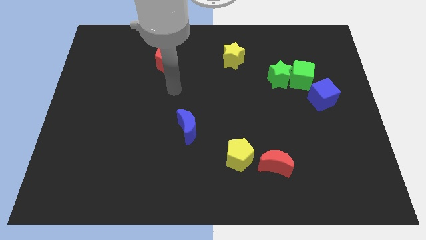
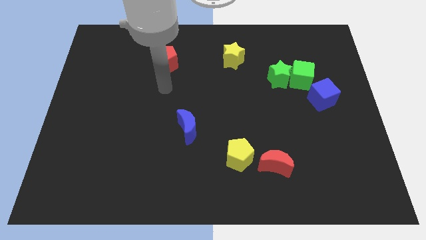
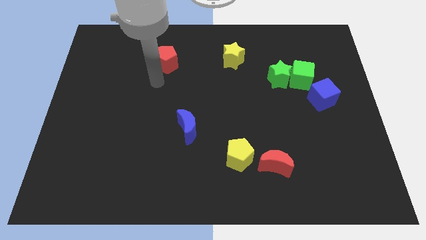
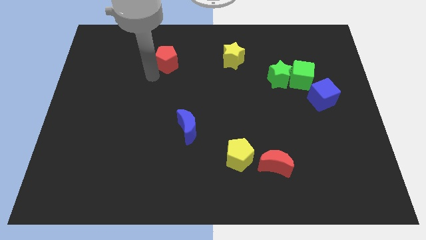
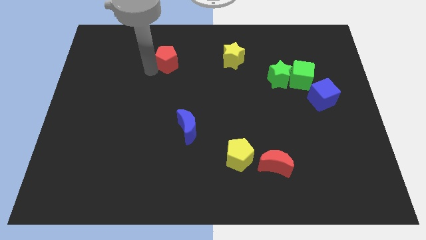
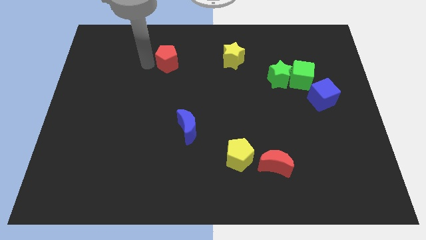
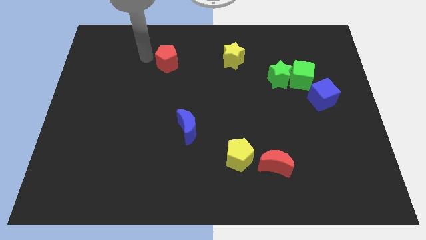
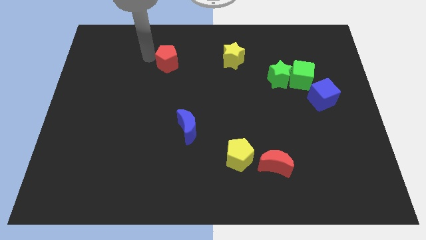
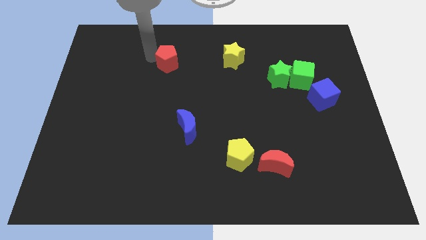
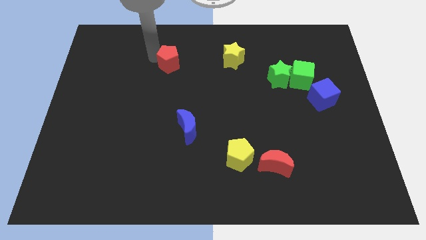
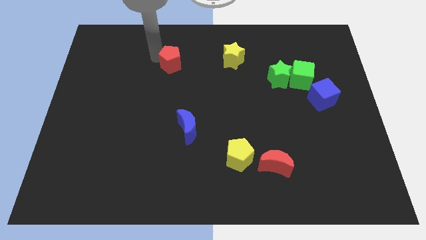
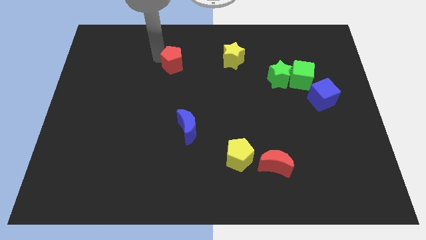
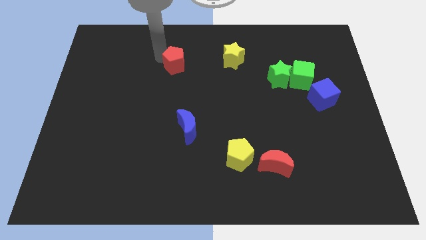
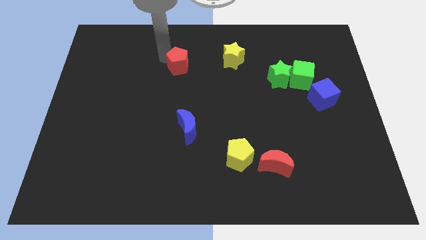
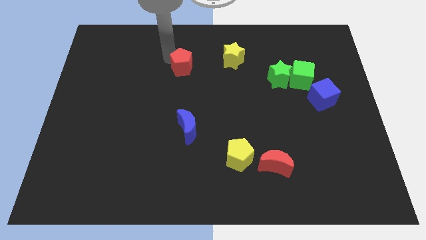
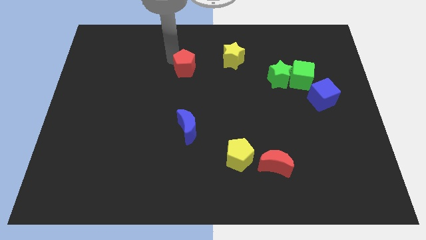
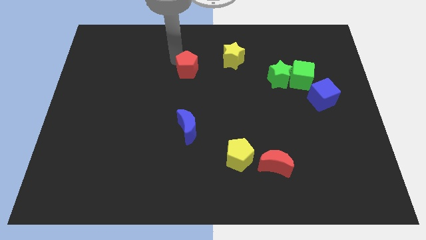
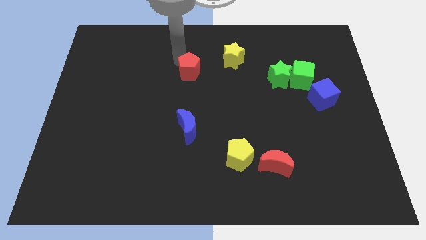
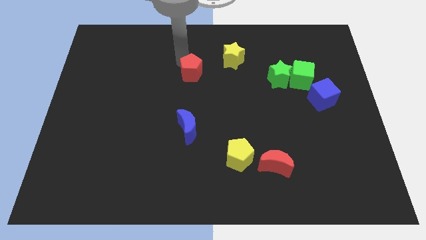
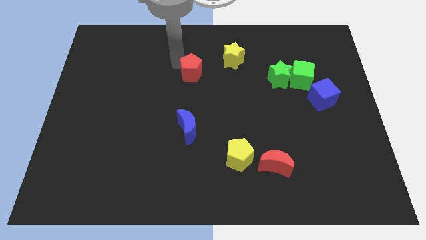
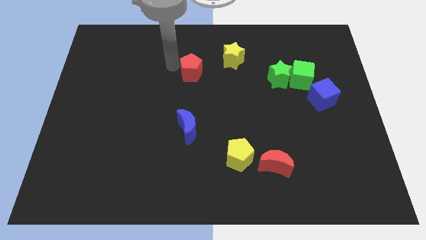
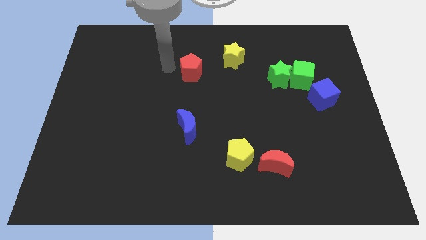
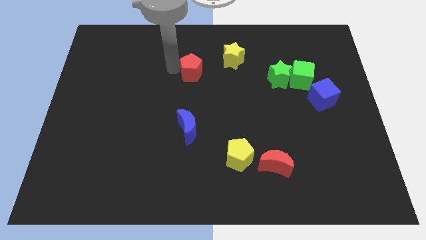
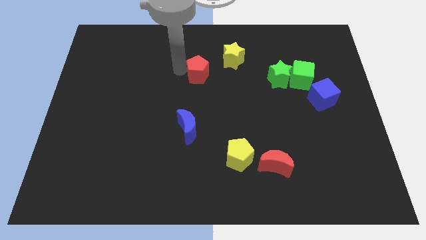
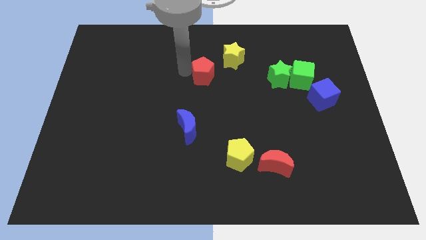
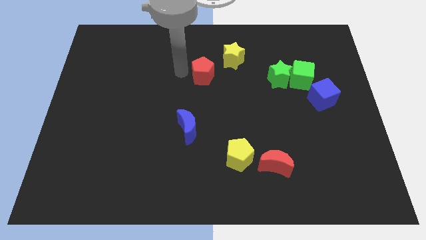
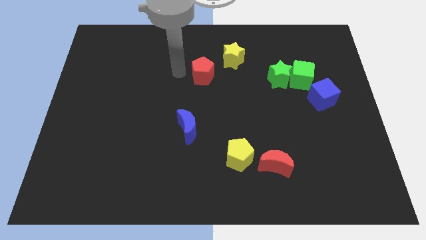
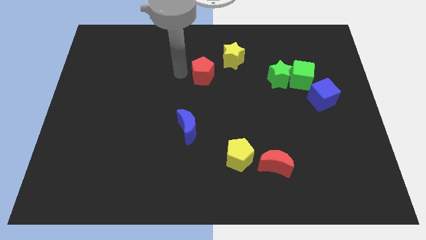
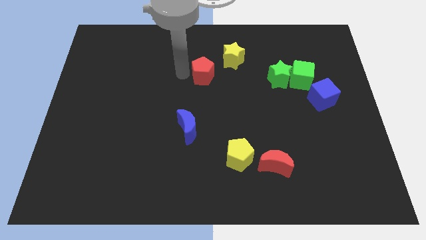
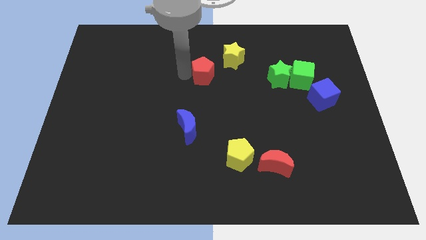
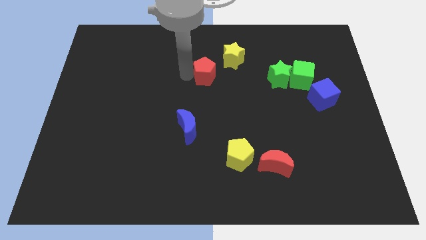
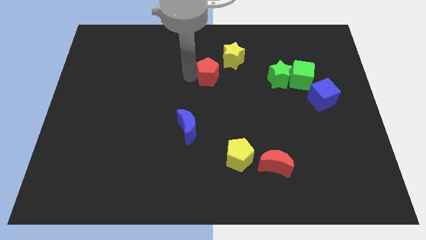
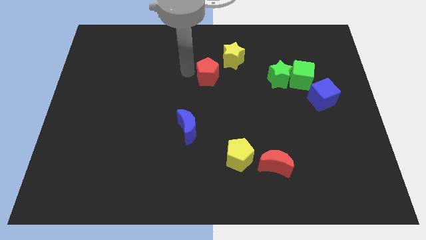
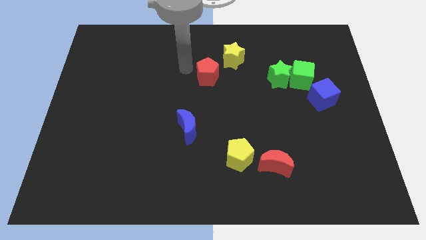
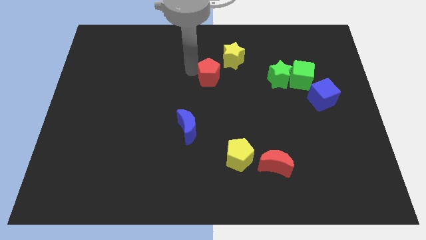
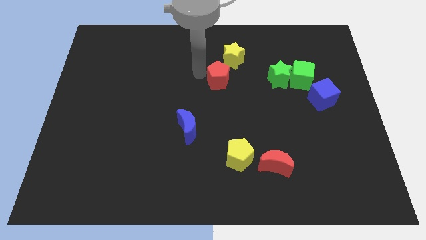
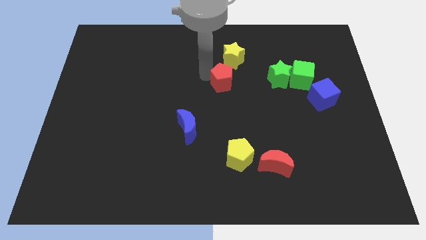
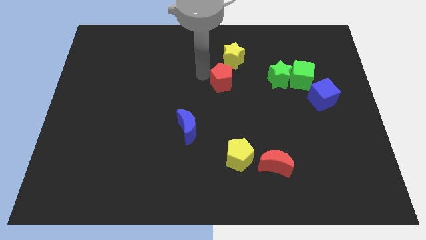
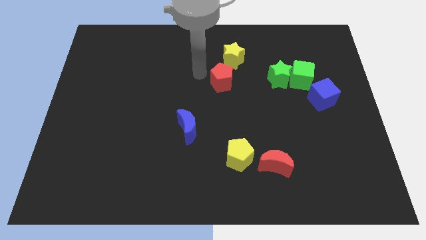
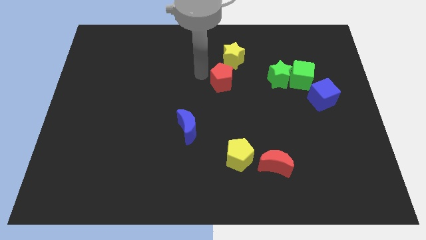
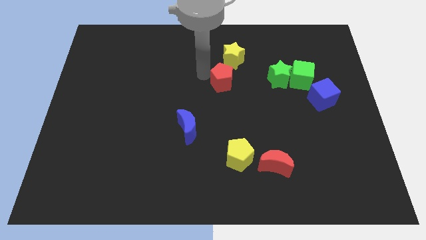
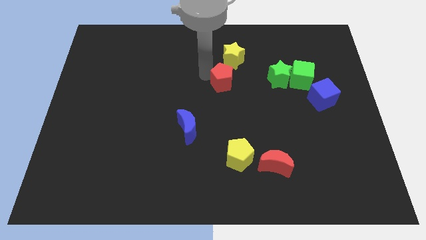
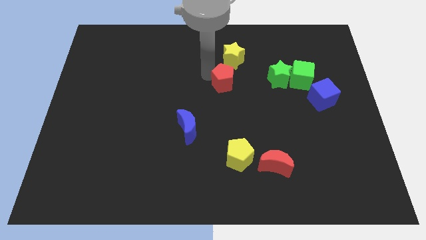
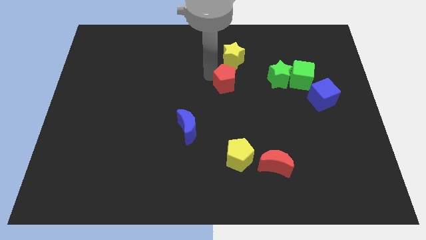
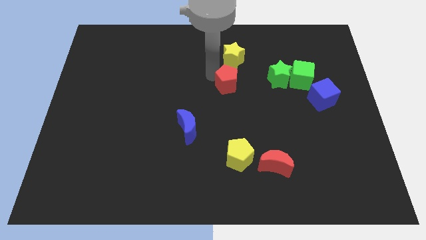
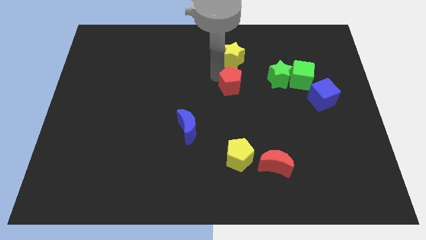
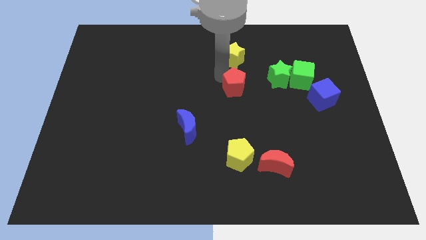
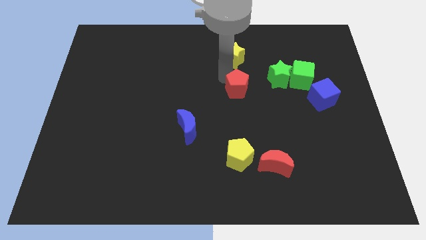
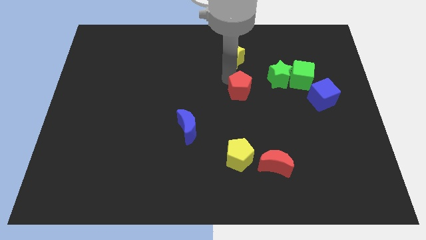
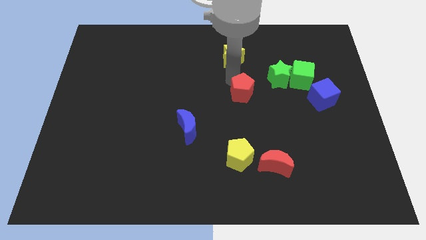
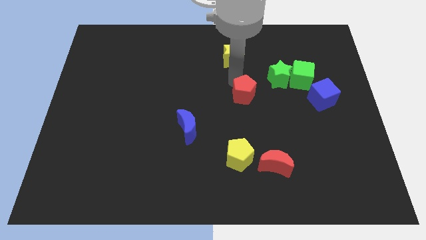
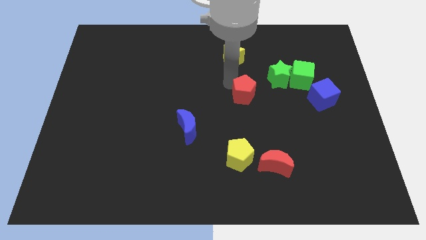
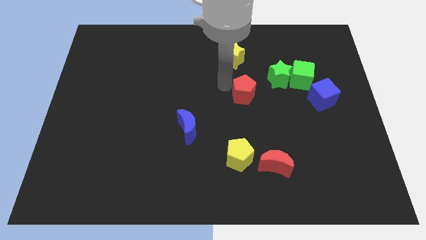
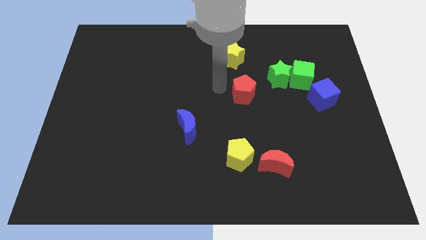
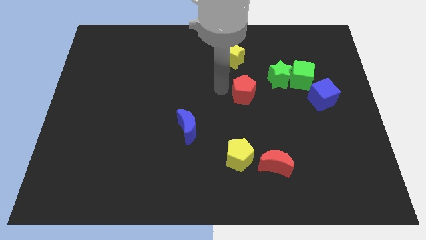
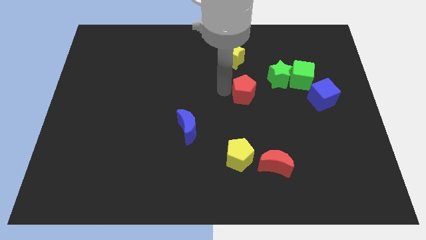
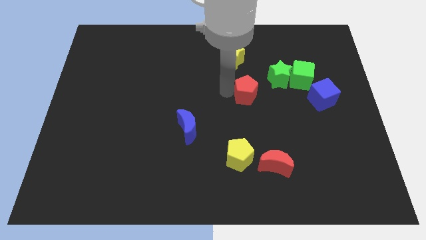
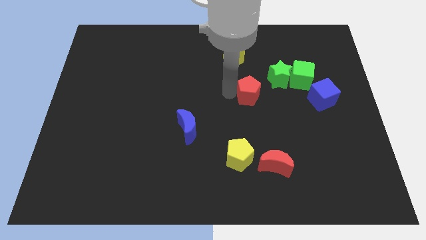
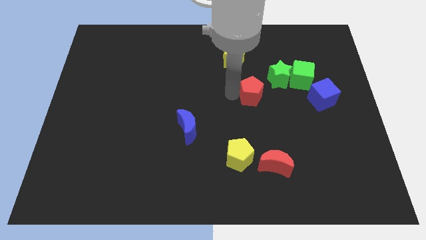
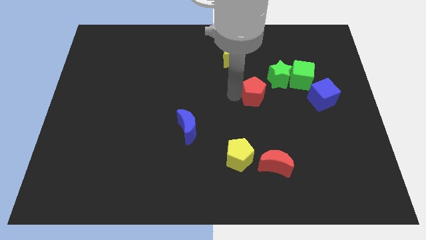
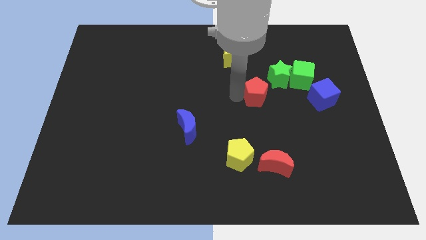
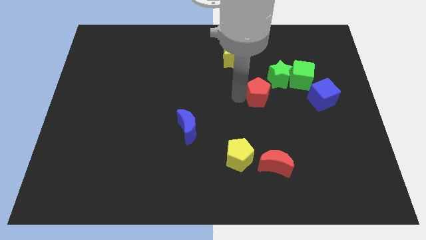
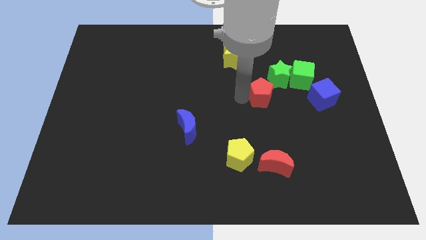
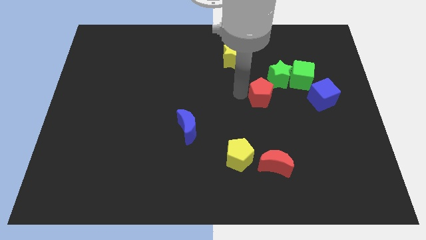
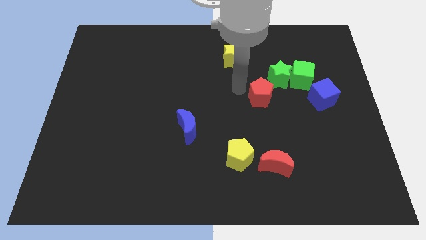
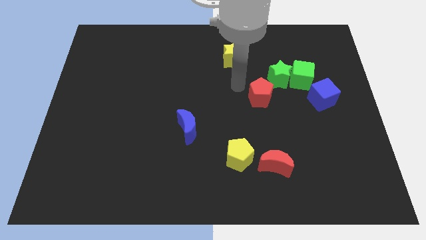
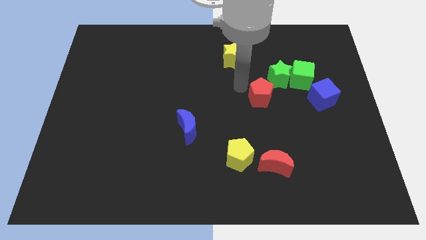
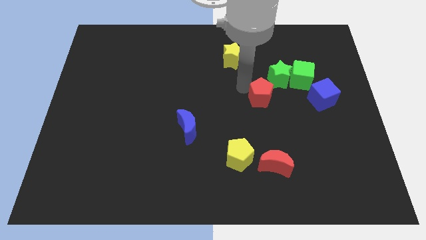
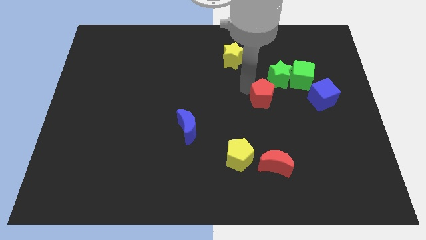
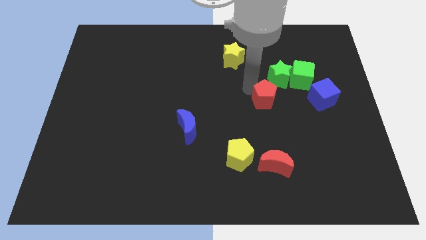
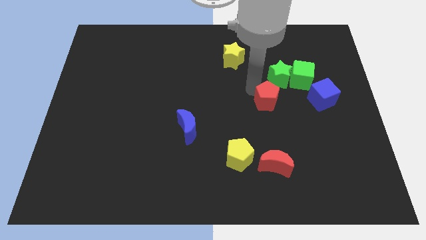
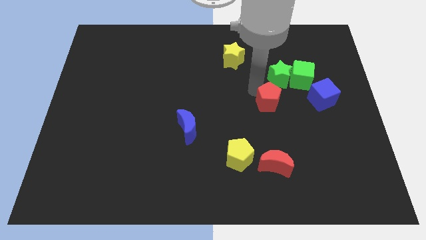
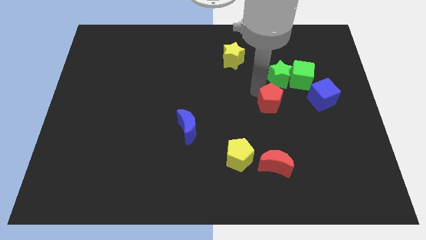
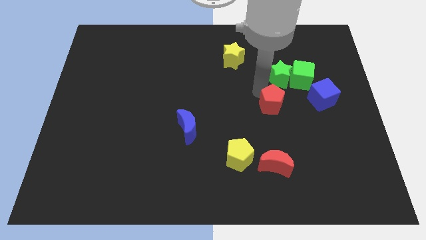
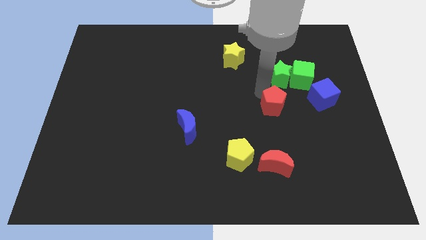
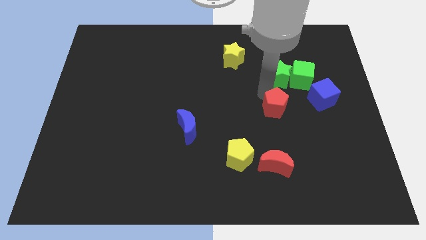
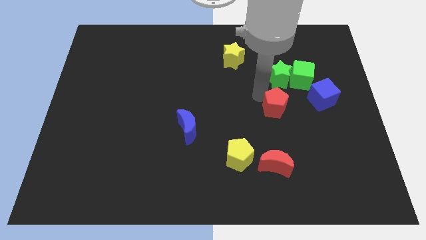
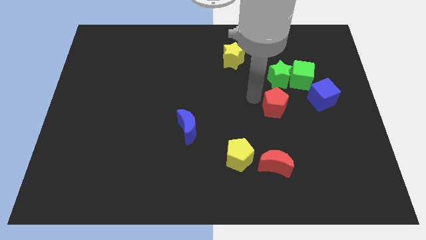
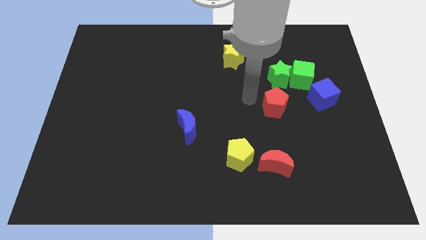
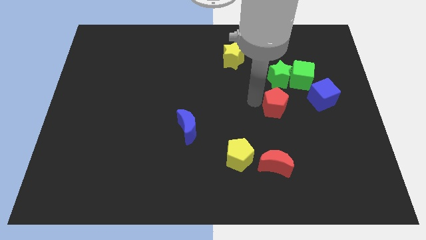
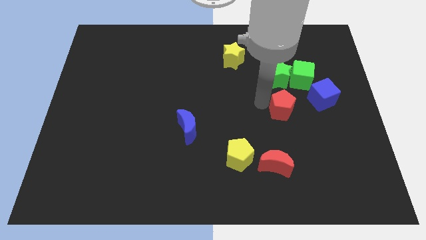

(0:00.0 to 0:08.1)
move the red pentagon to the bottom left of the blue cube
